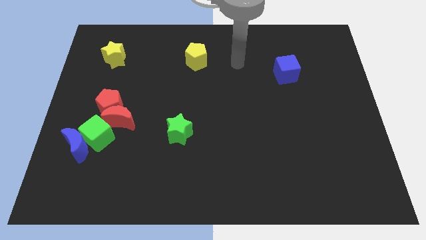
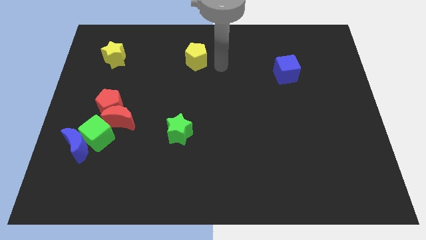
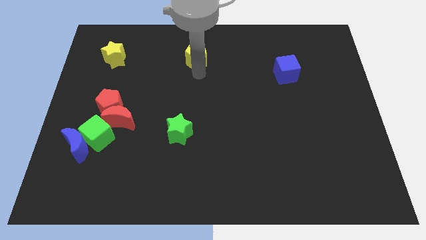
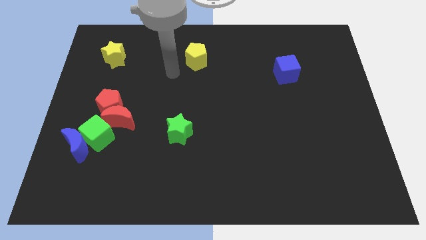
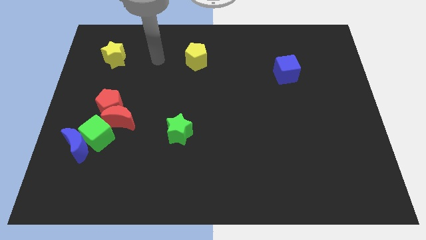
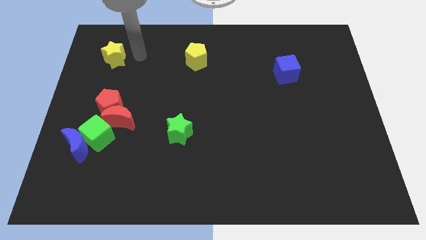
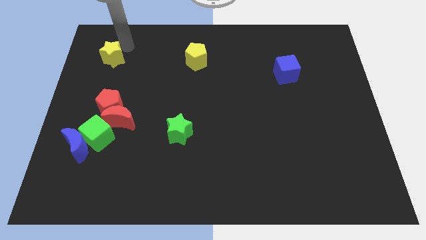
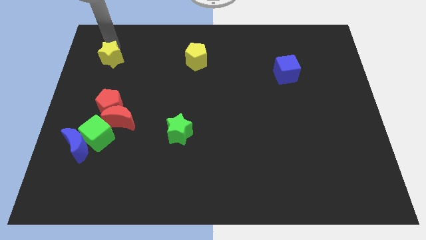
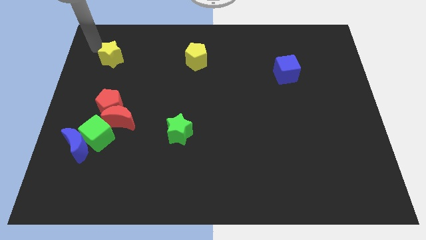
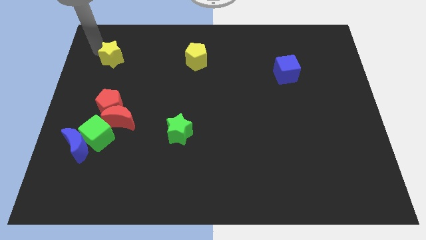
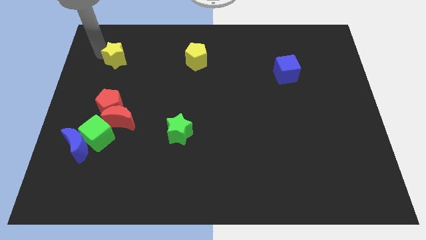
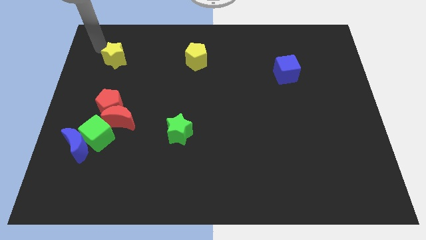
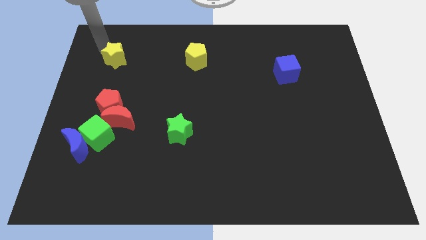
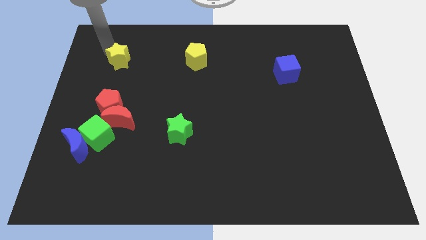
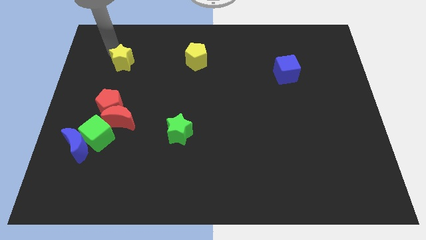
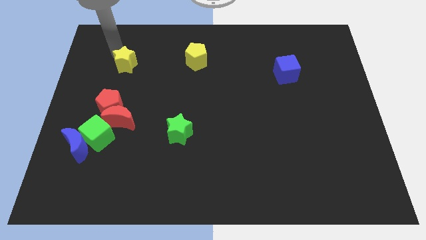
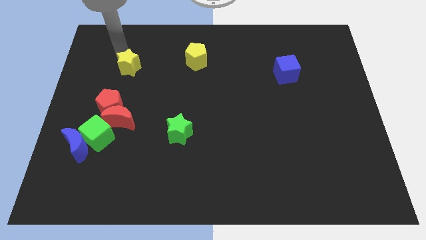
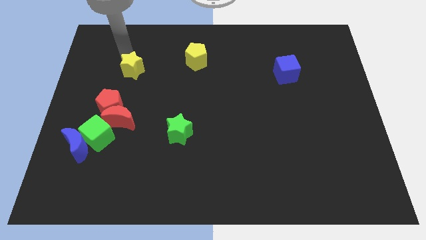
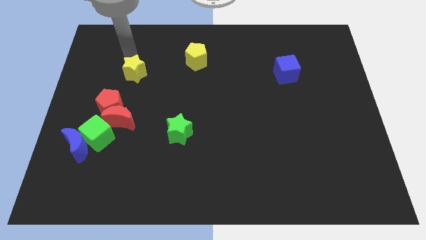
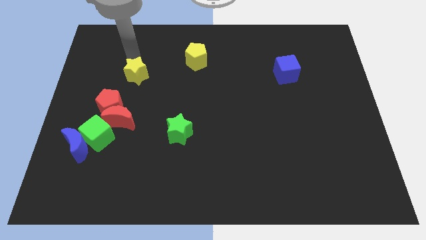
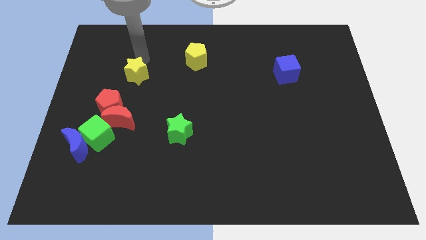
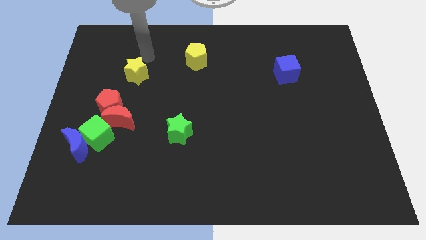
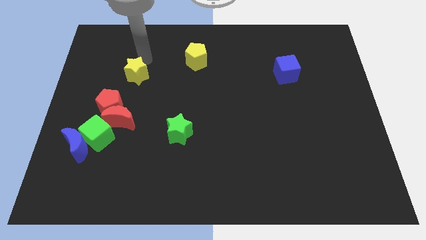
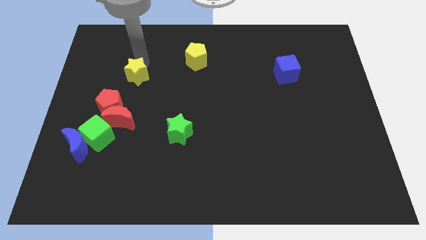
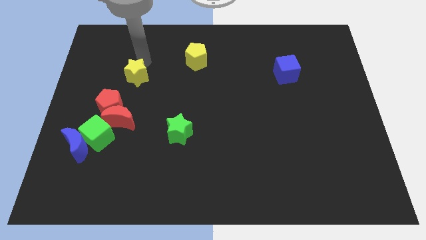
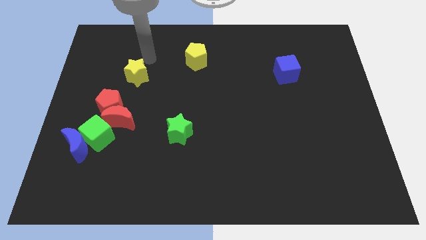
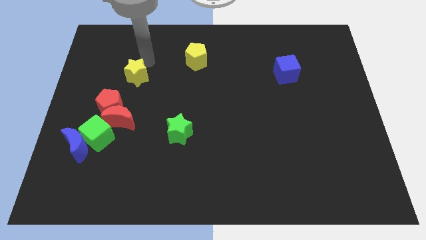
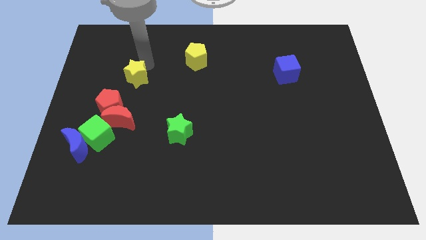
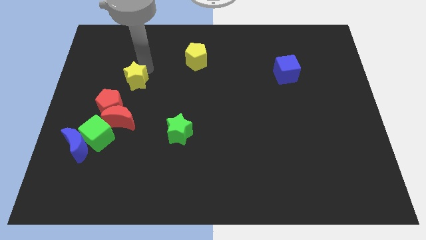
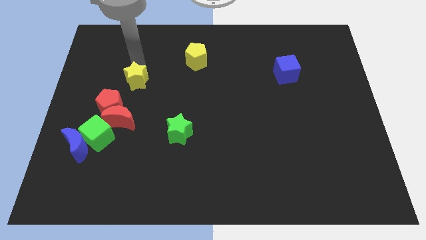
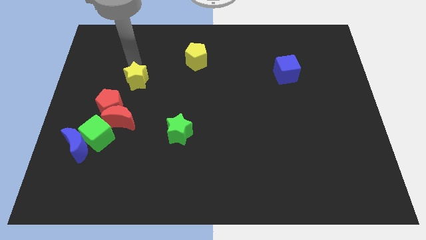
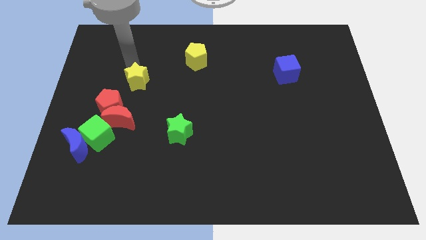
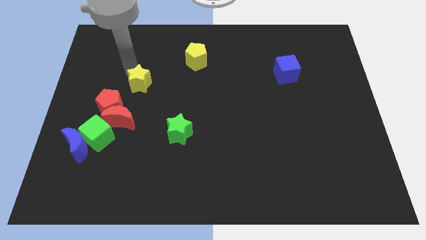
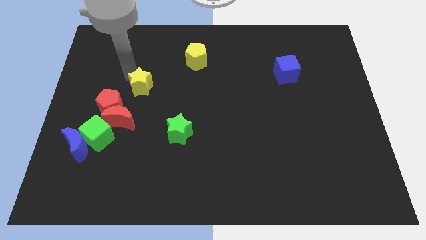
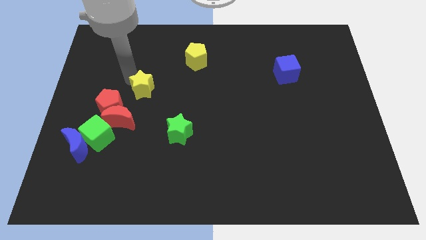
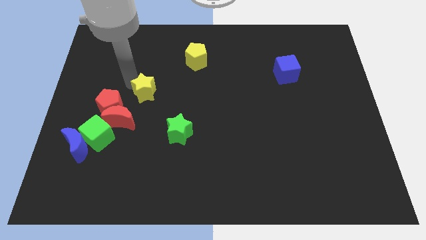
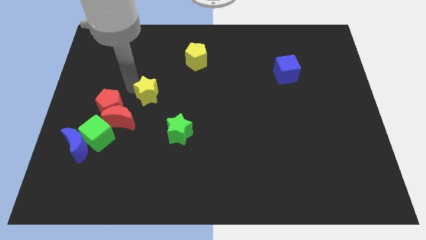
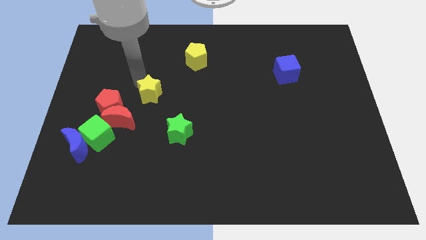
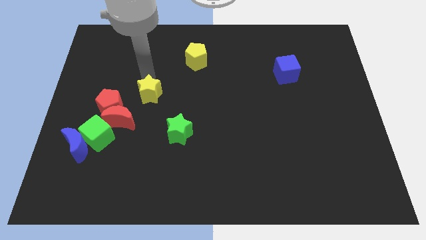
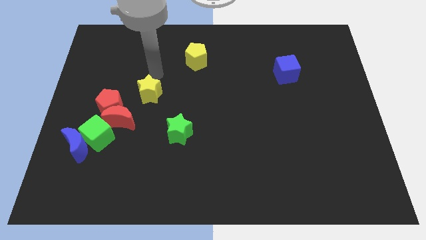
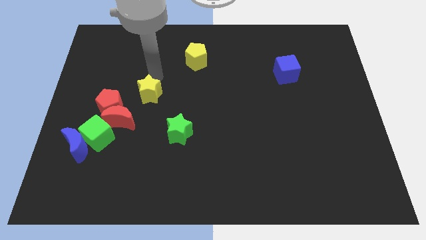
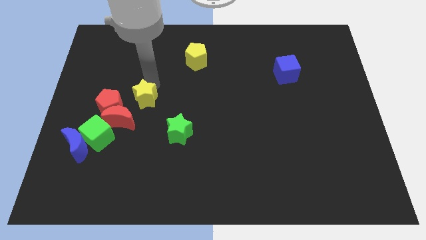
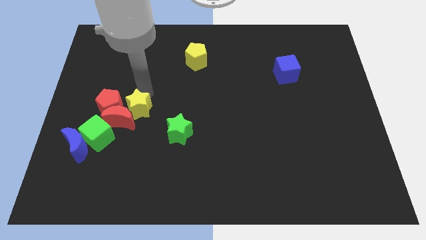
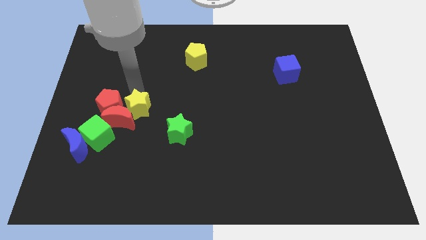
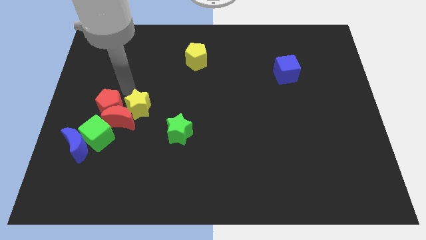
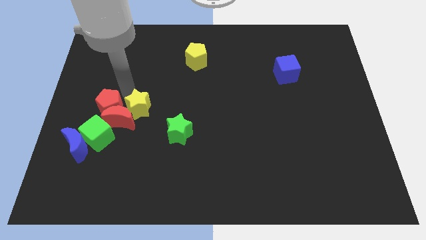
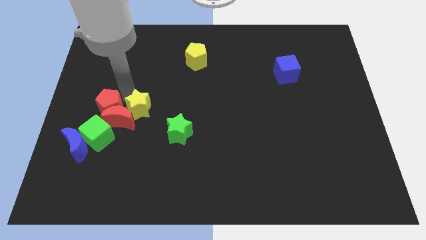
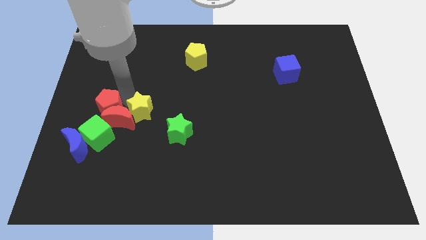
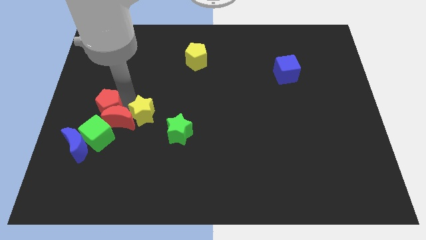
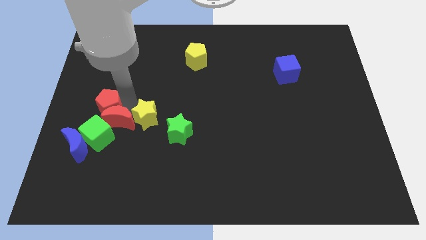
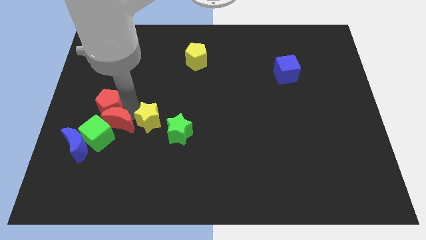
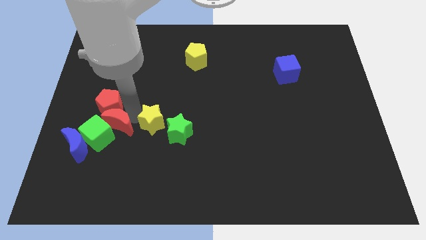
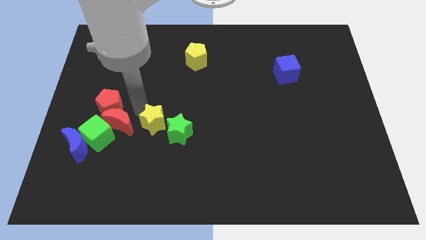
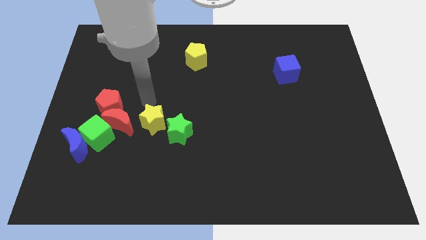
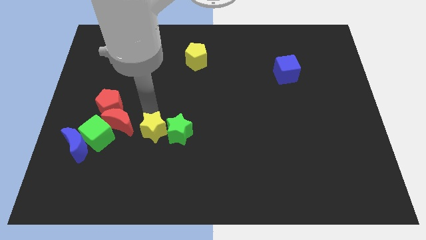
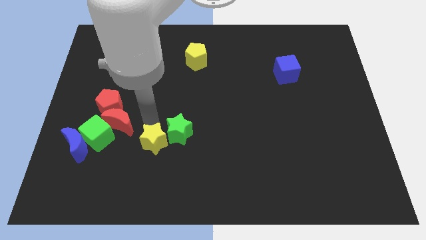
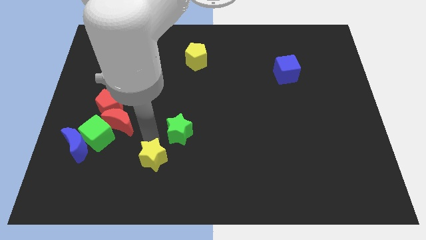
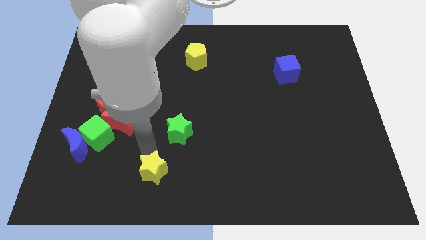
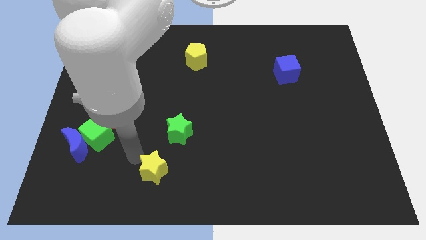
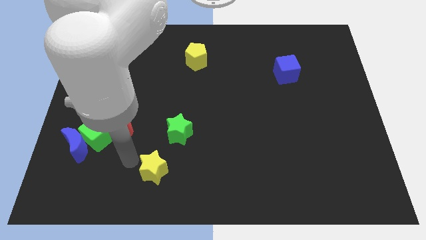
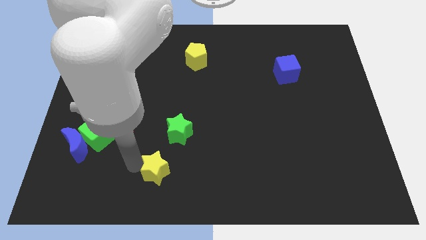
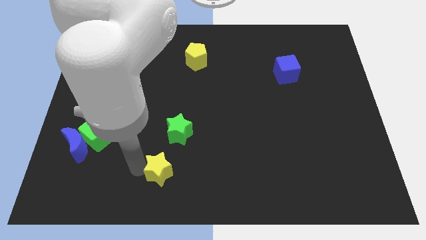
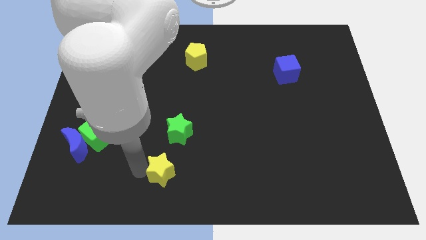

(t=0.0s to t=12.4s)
push the yellow star to the bottom

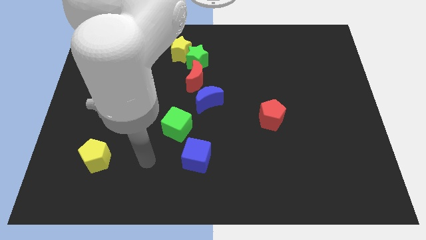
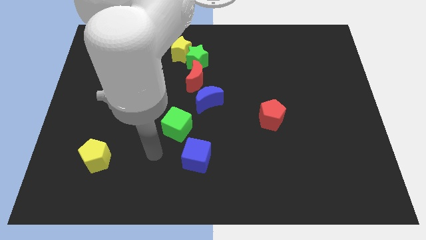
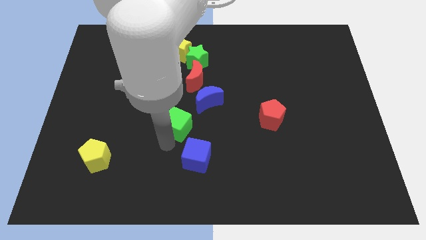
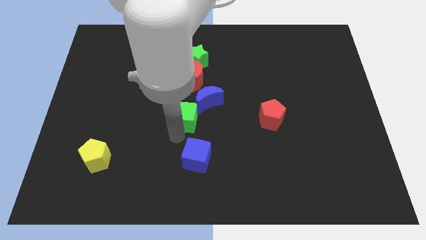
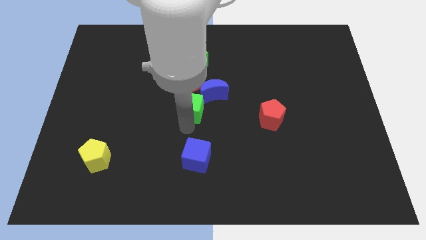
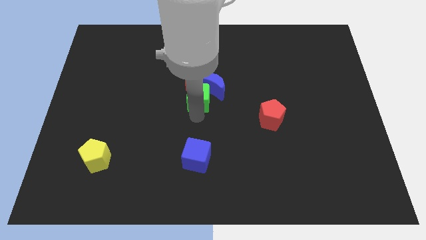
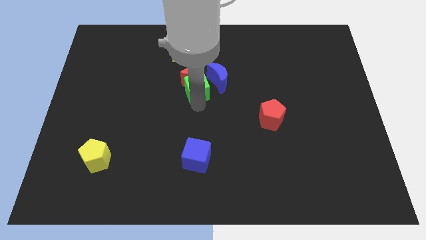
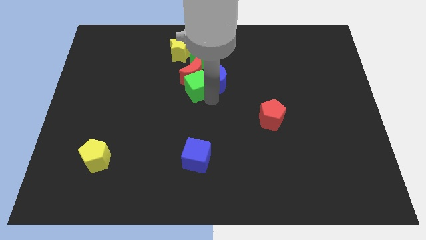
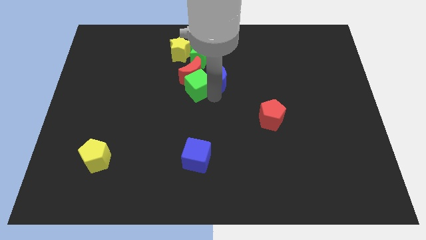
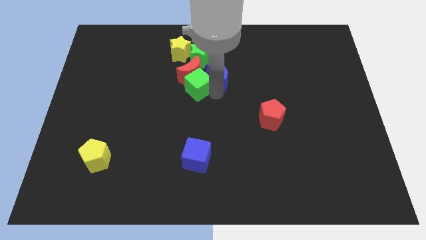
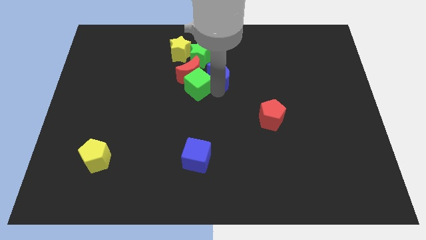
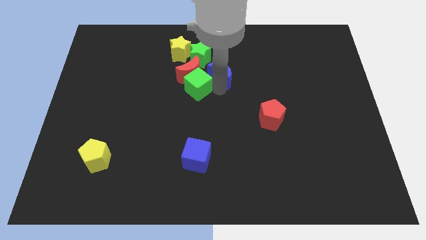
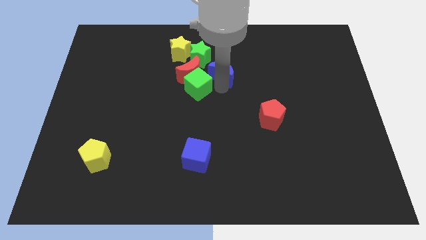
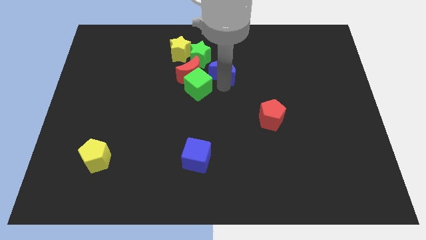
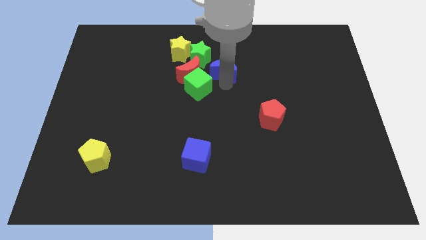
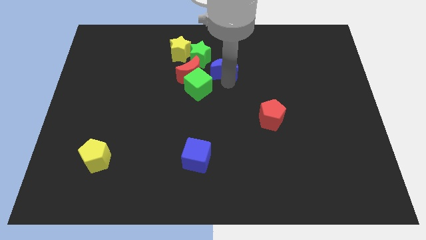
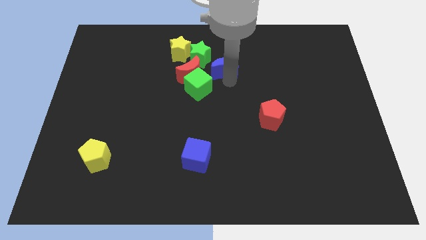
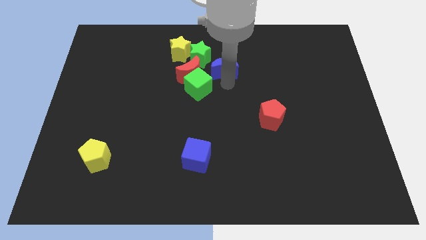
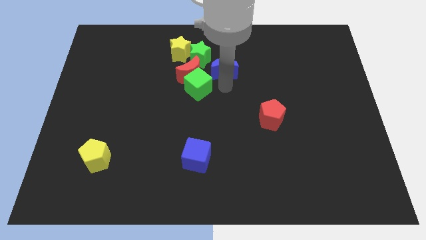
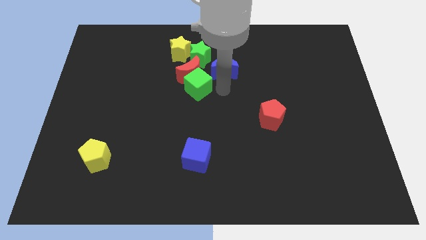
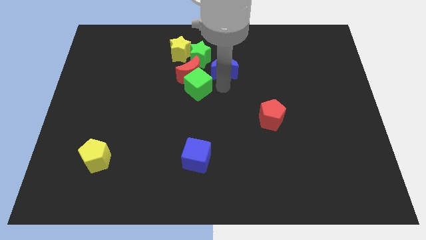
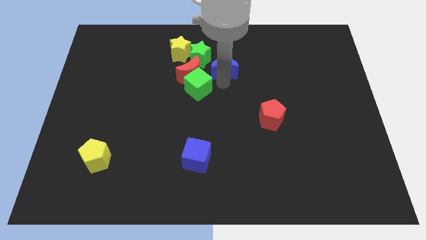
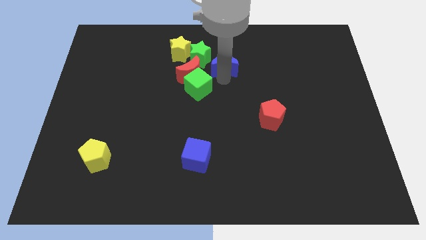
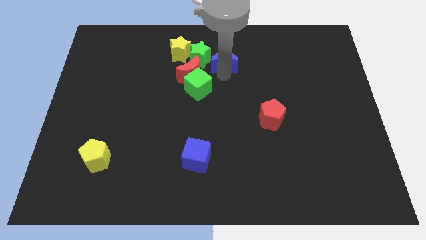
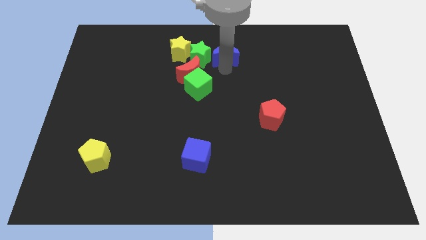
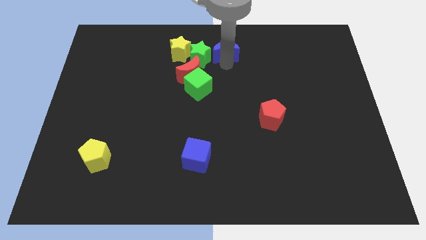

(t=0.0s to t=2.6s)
slide the blue moon to the towards your base
